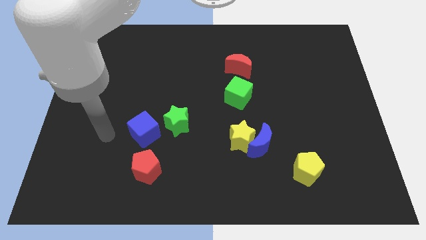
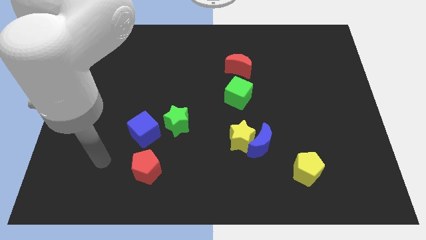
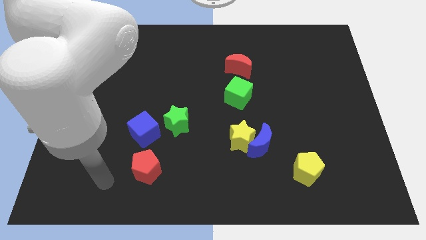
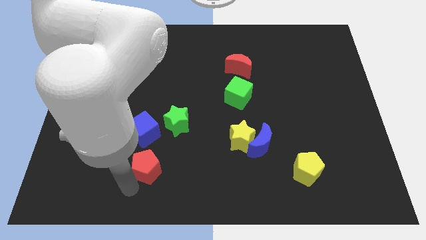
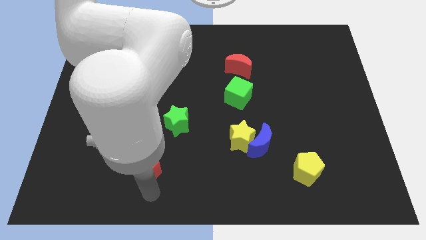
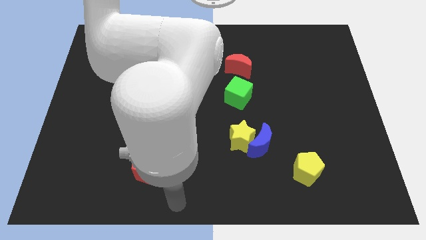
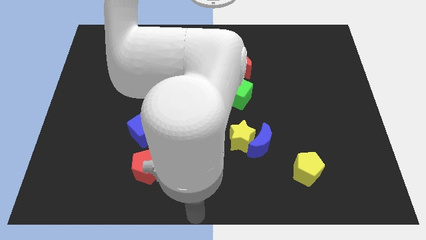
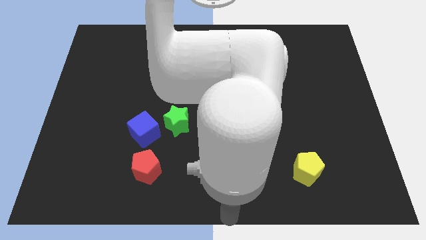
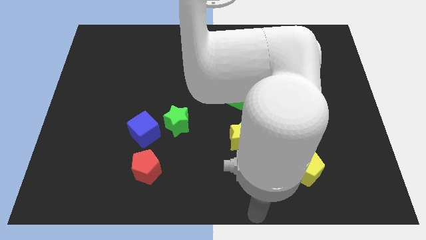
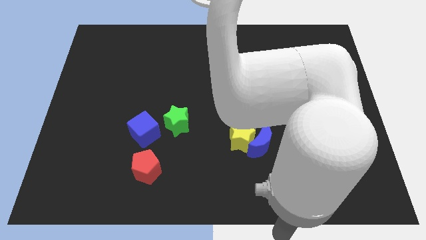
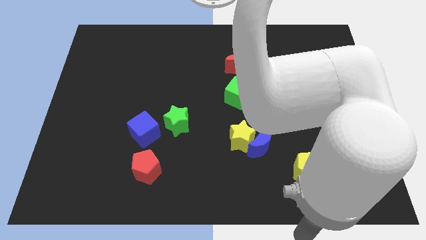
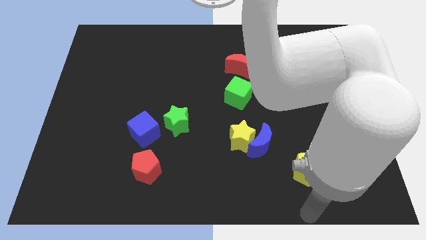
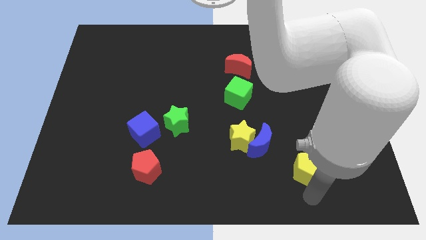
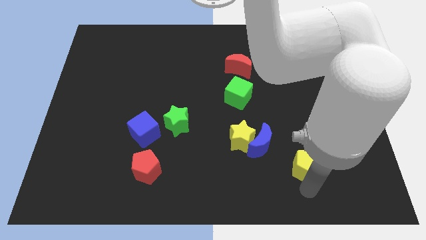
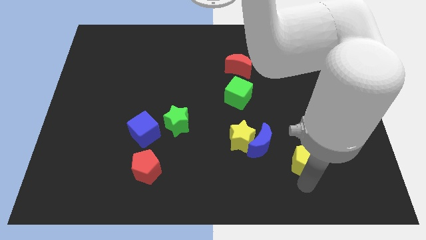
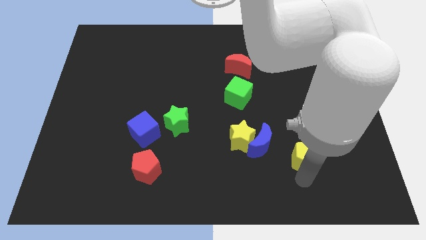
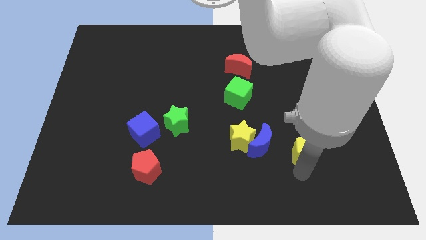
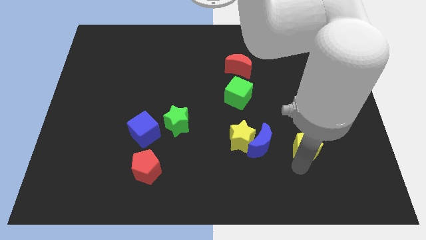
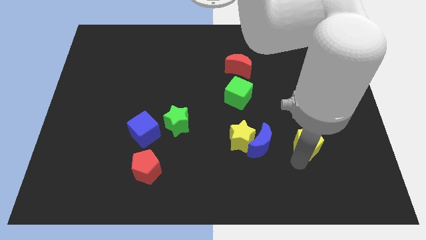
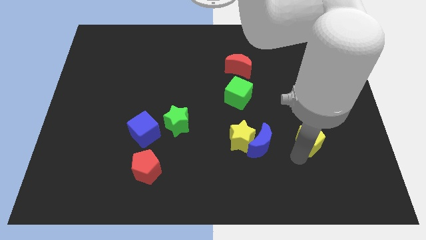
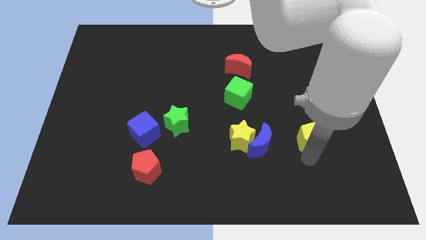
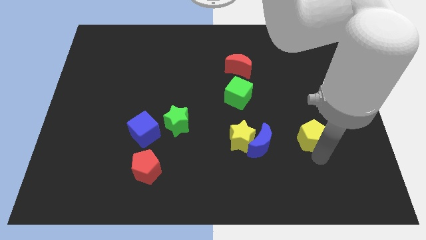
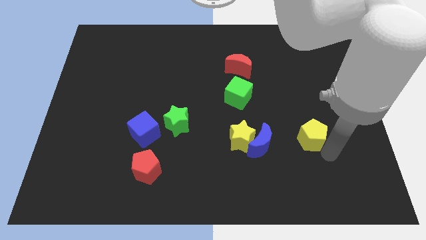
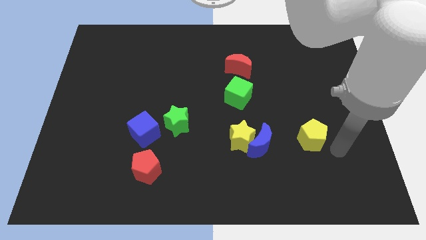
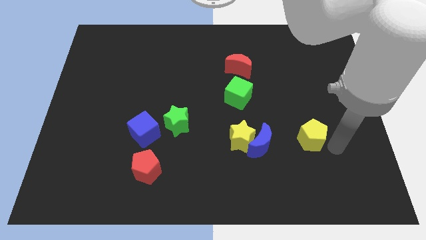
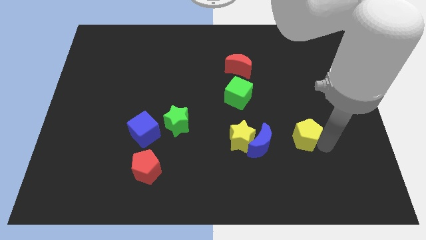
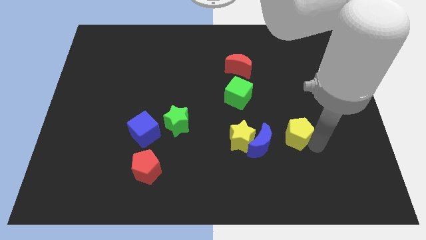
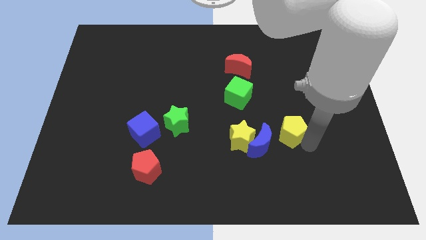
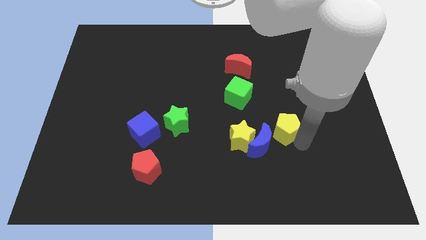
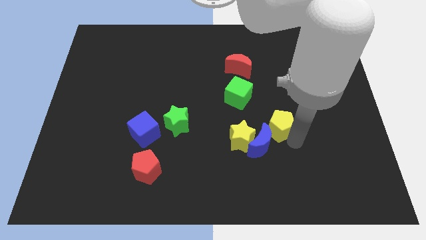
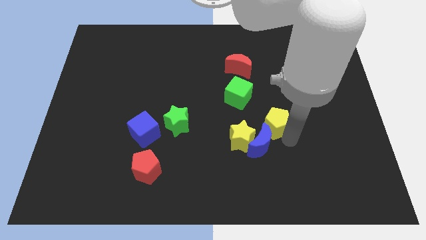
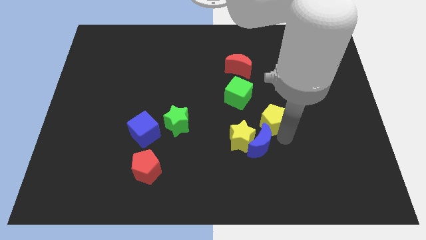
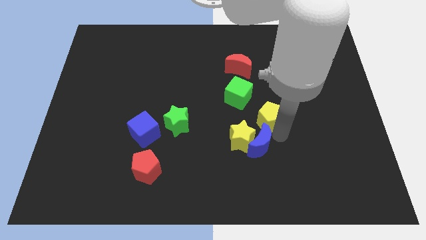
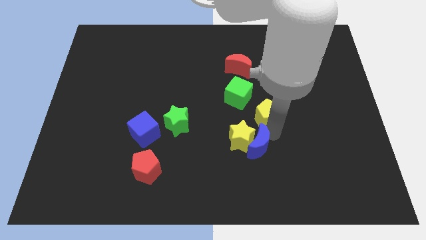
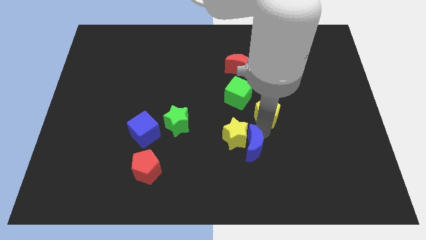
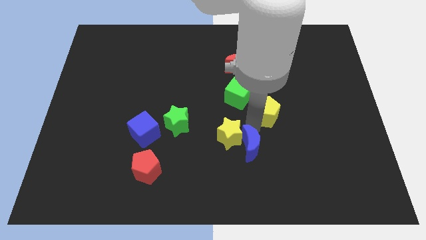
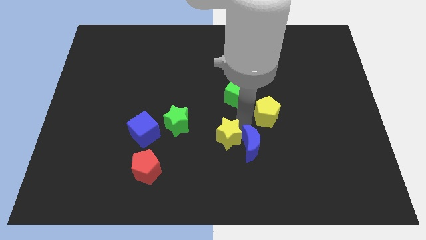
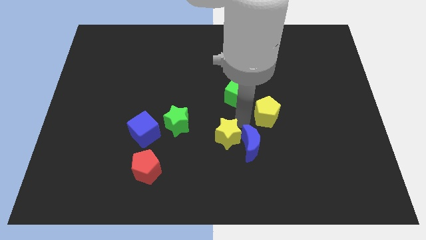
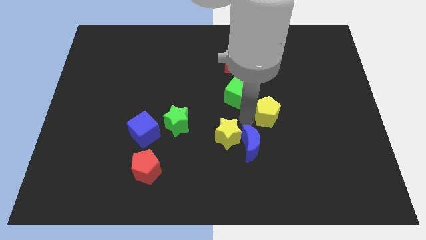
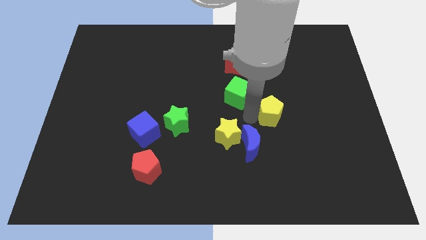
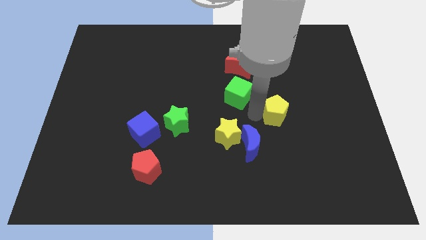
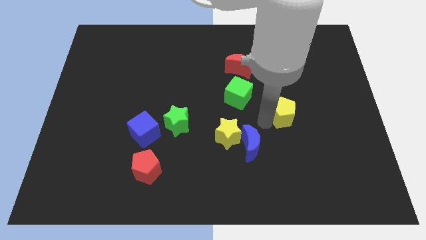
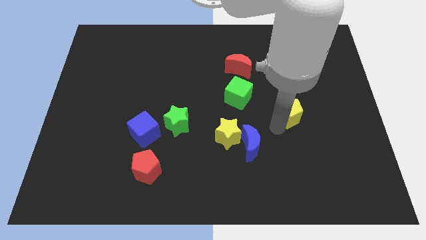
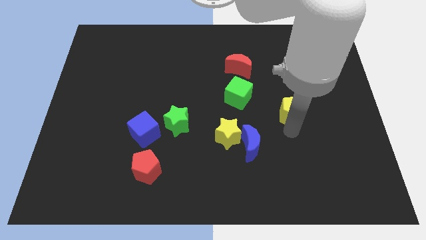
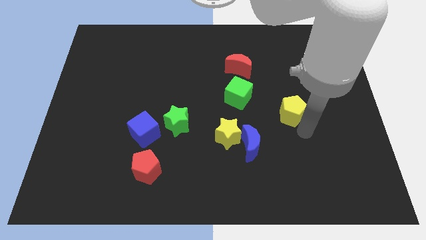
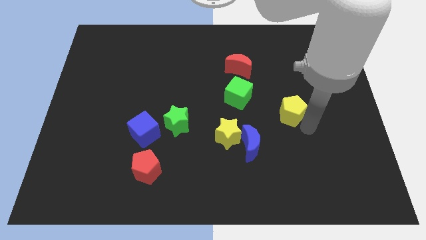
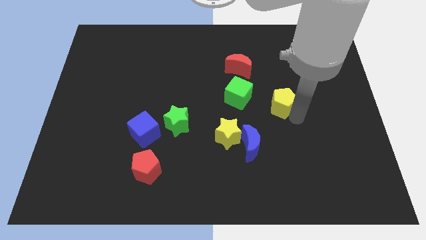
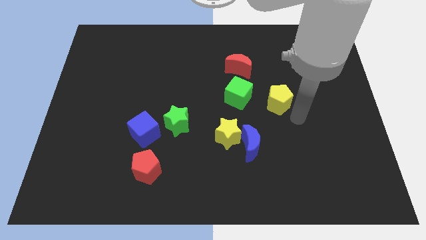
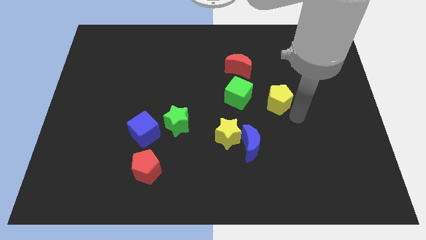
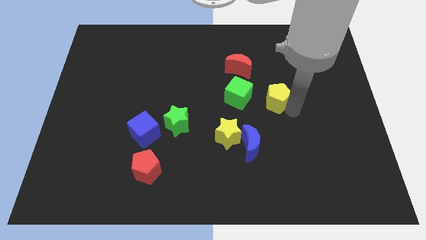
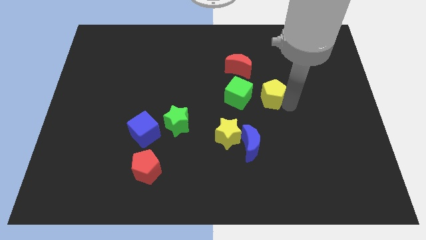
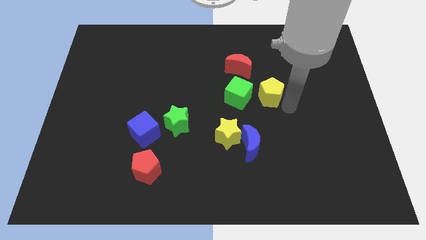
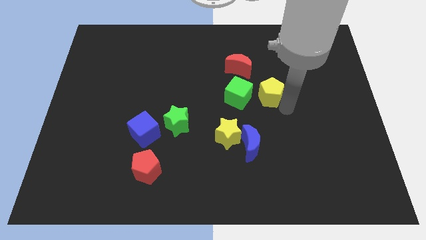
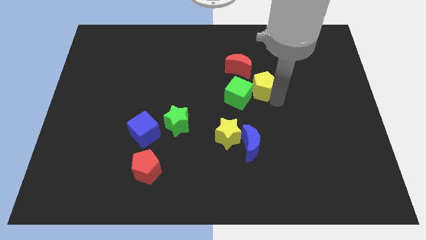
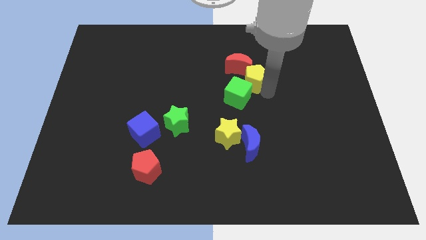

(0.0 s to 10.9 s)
push the yellow pentagon close to the red moon

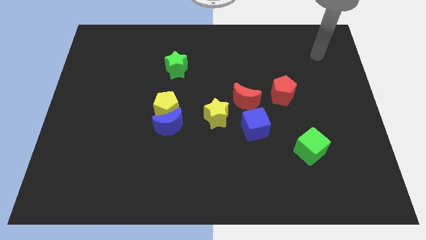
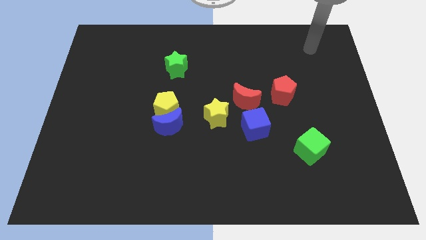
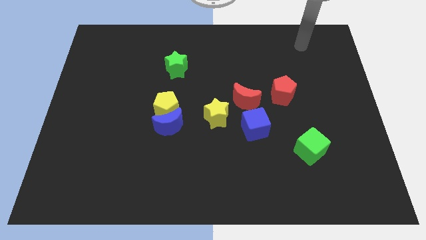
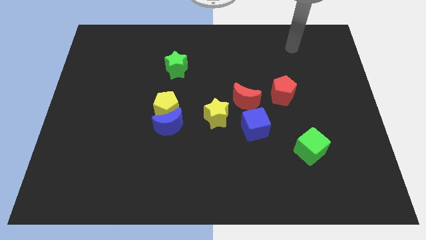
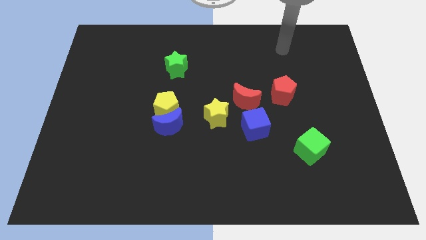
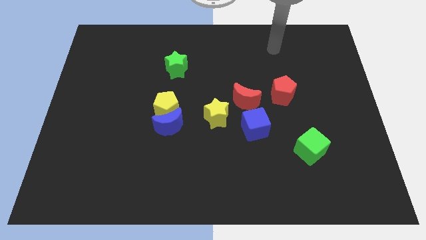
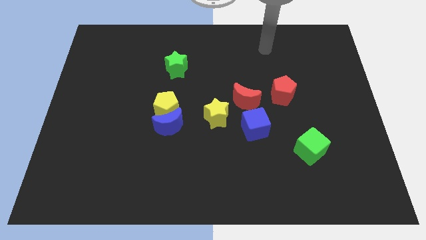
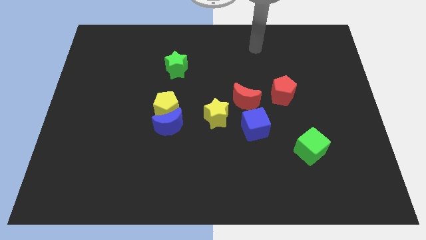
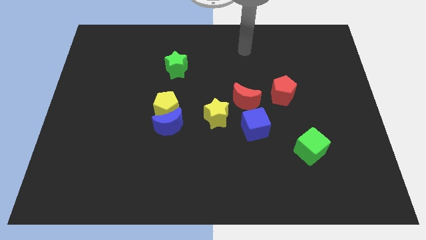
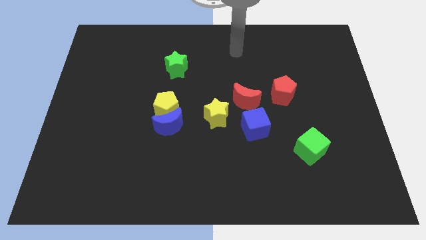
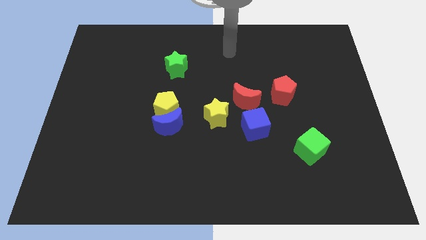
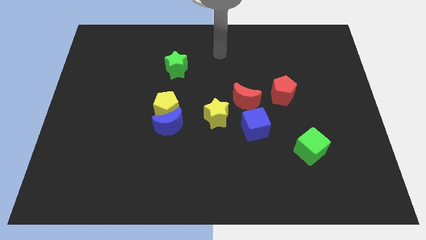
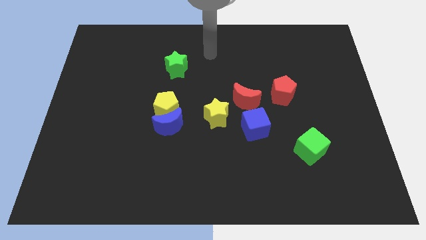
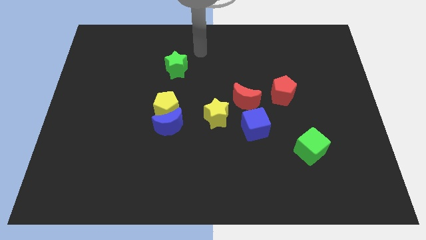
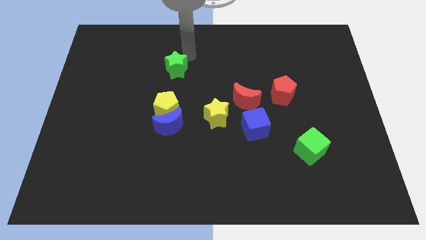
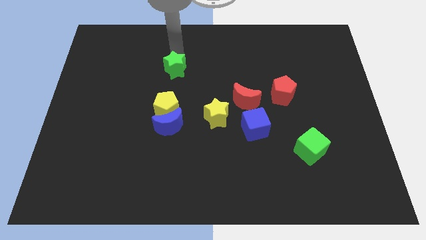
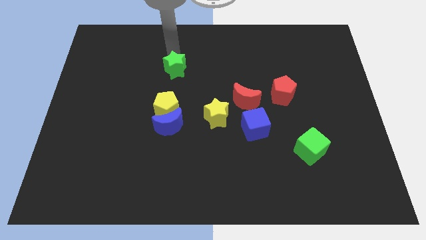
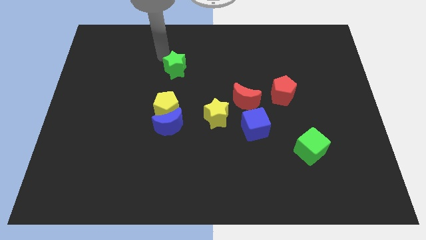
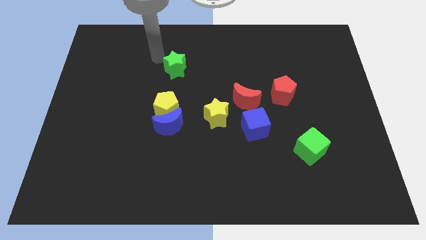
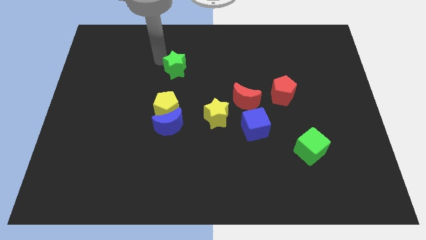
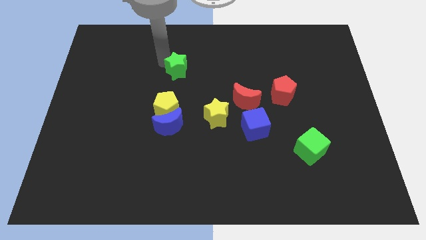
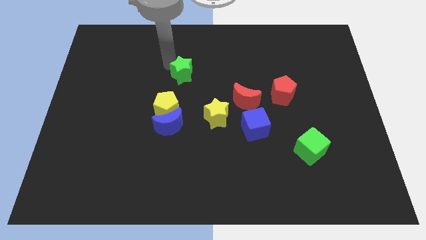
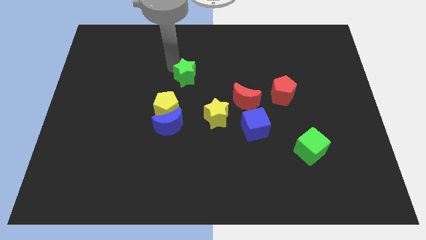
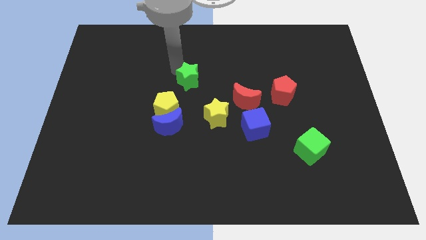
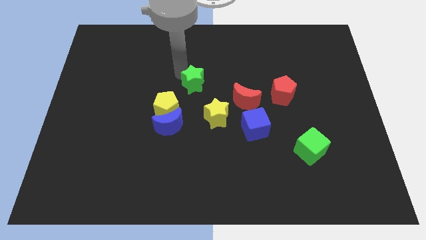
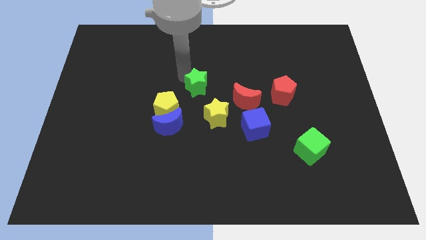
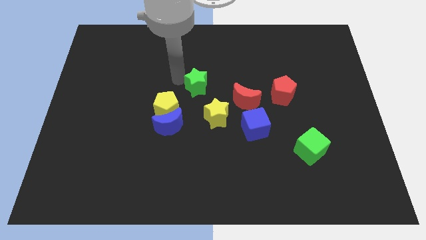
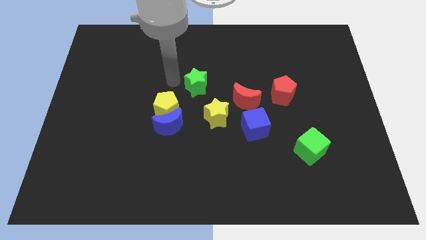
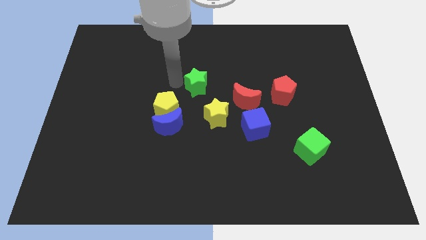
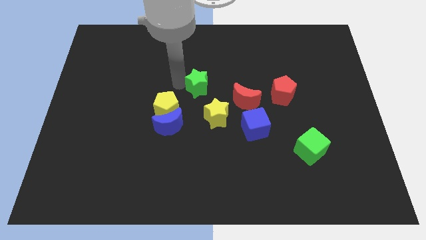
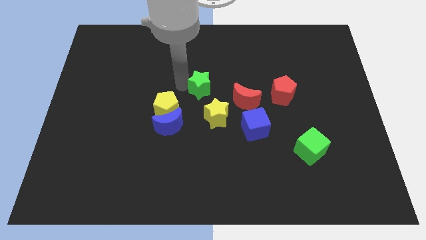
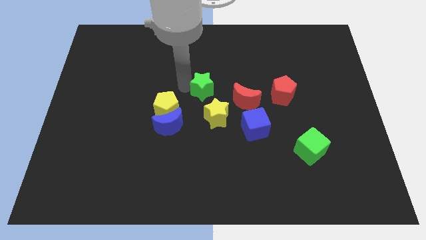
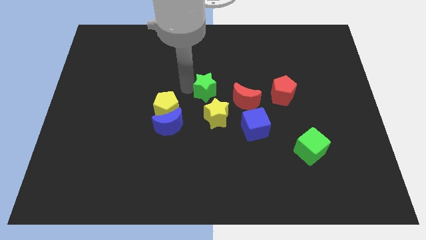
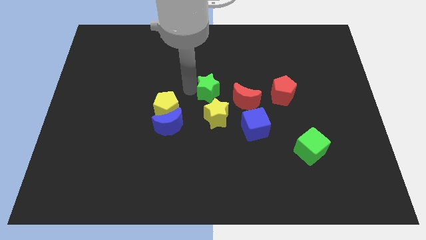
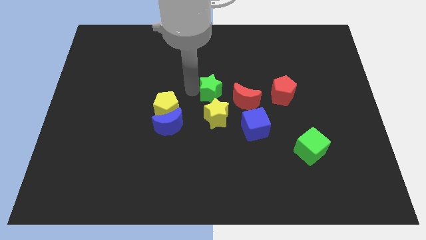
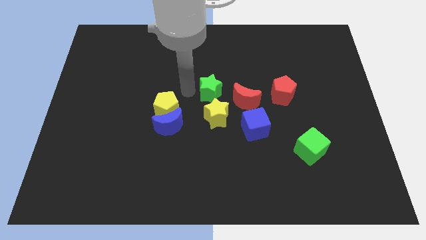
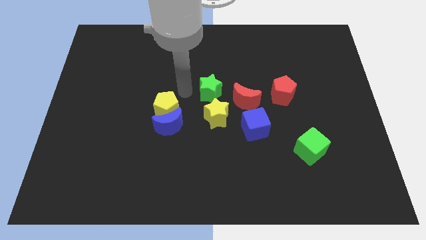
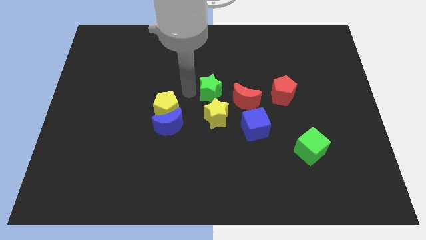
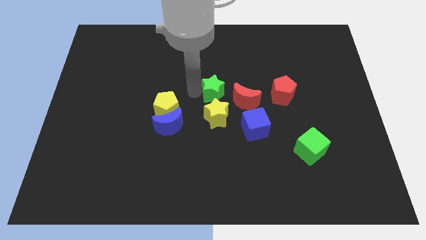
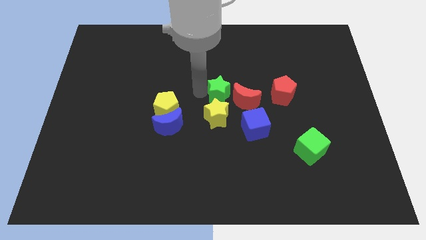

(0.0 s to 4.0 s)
push the green star to the red moon
